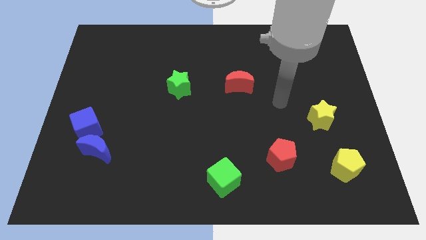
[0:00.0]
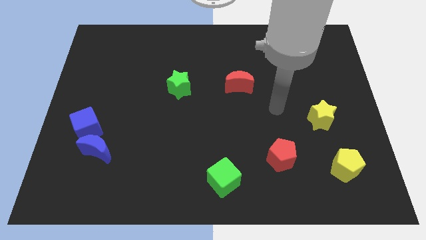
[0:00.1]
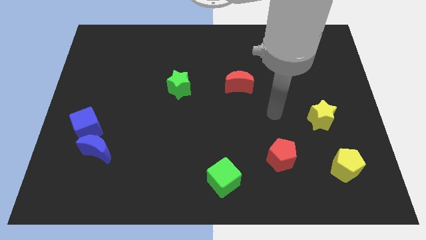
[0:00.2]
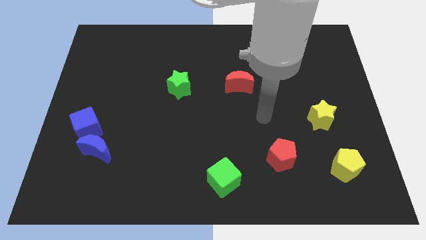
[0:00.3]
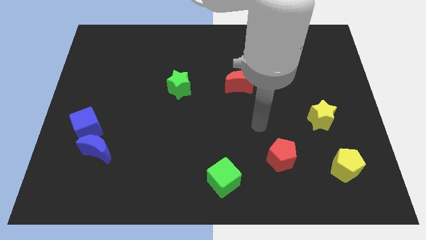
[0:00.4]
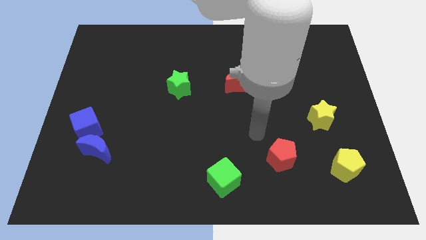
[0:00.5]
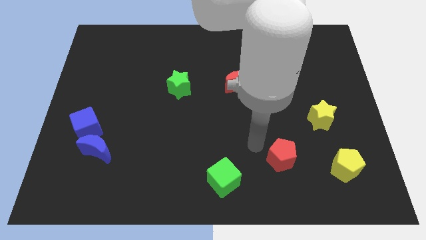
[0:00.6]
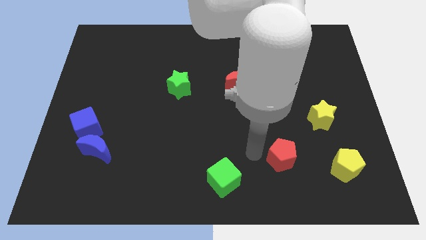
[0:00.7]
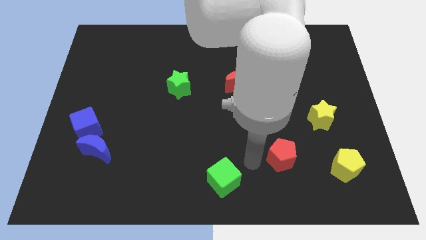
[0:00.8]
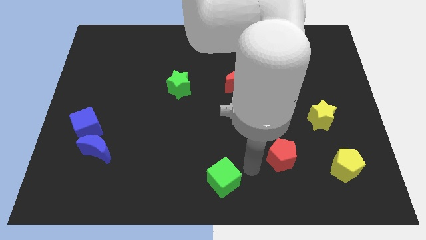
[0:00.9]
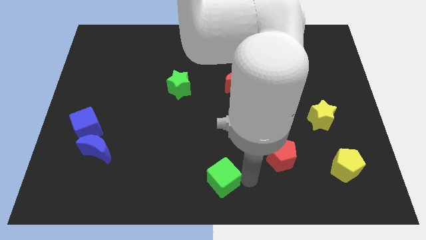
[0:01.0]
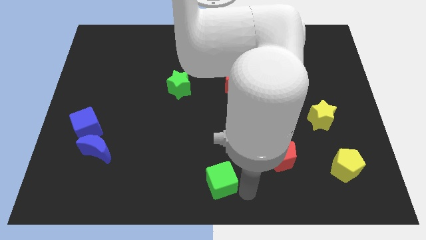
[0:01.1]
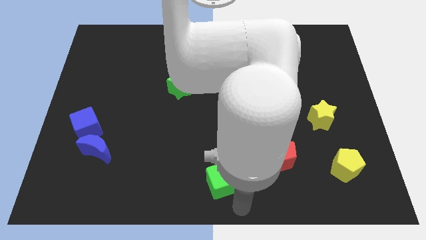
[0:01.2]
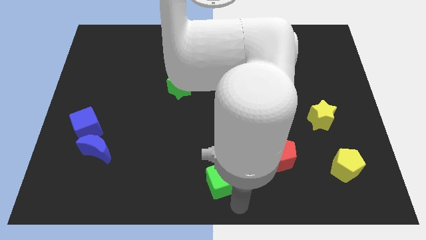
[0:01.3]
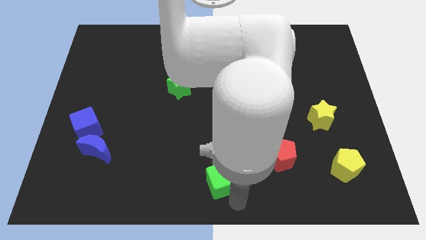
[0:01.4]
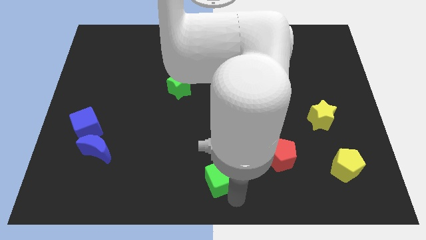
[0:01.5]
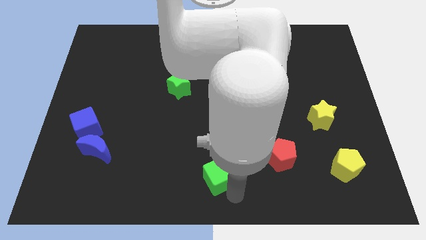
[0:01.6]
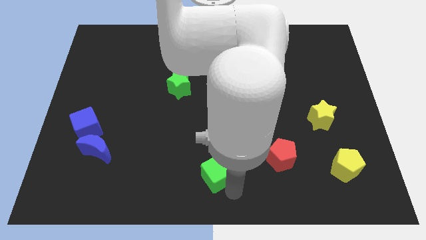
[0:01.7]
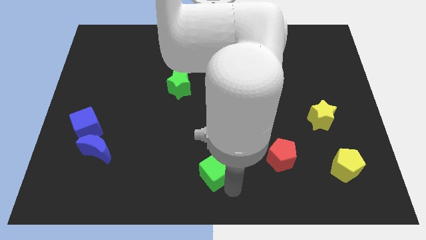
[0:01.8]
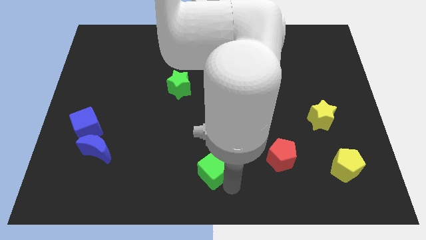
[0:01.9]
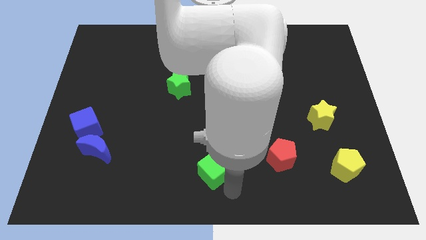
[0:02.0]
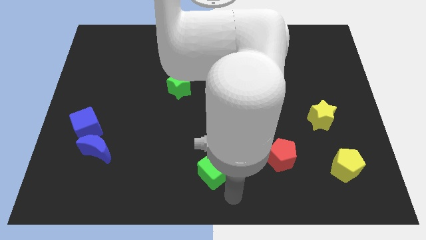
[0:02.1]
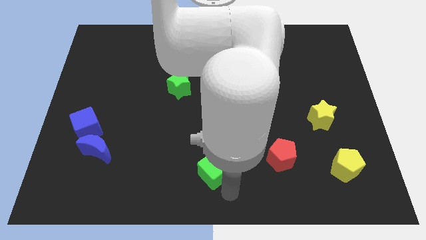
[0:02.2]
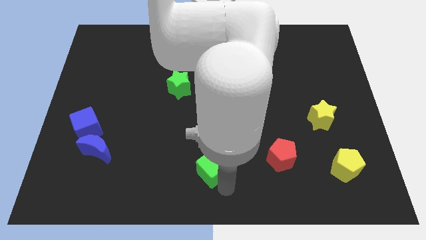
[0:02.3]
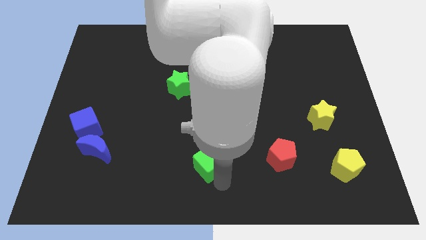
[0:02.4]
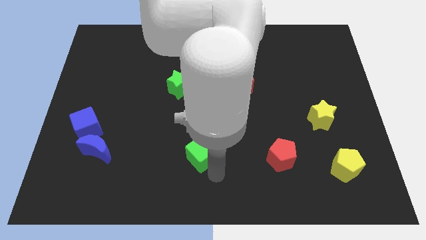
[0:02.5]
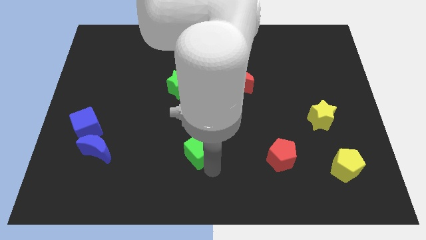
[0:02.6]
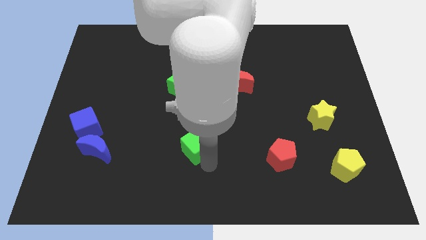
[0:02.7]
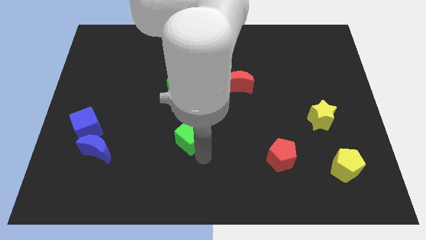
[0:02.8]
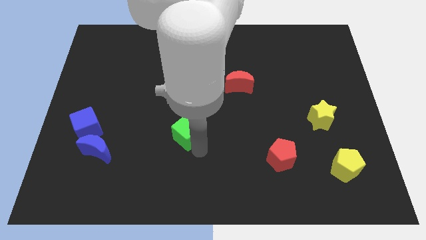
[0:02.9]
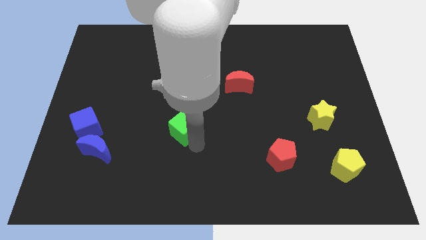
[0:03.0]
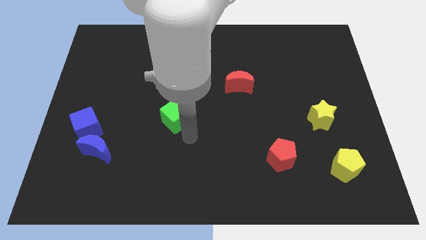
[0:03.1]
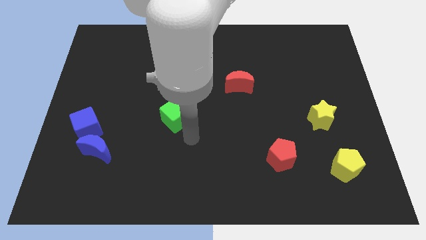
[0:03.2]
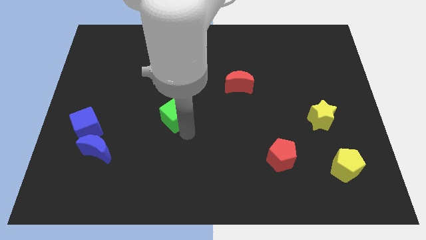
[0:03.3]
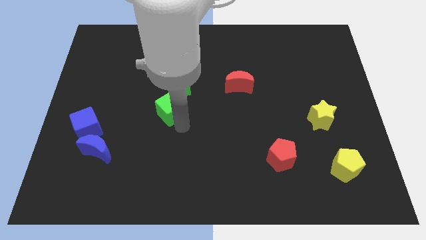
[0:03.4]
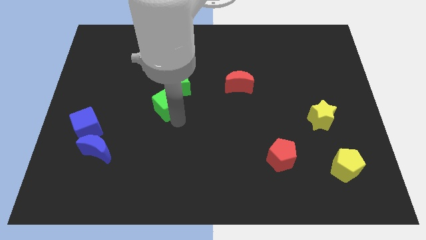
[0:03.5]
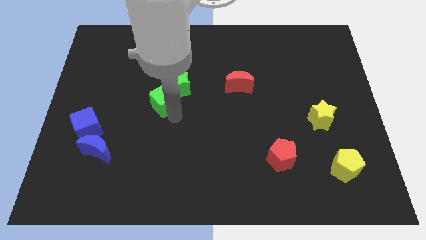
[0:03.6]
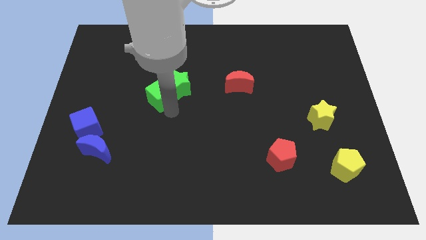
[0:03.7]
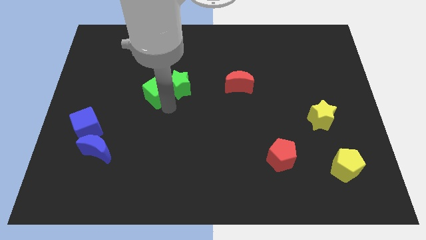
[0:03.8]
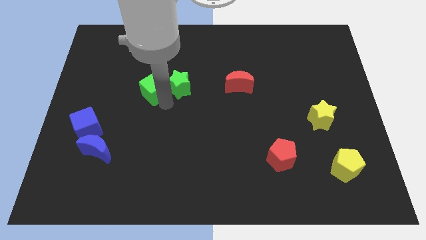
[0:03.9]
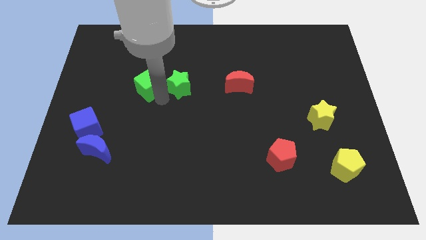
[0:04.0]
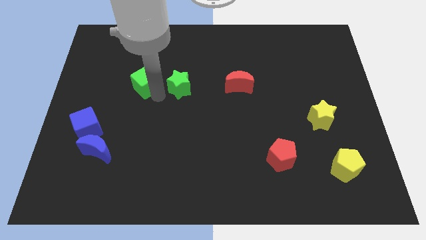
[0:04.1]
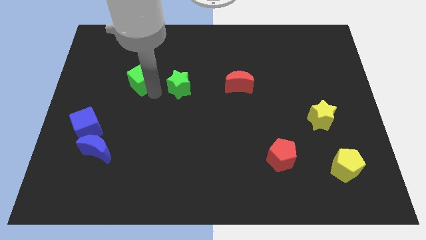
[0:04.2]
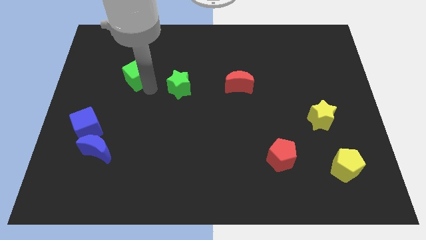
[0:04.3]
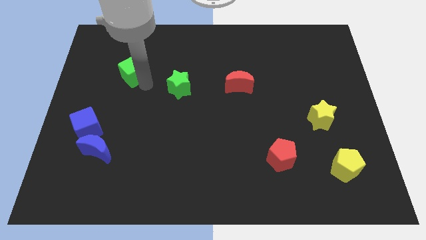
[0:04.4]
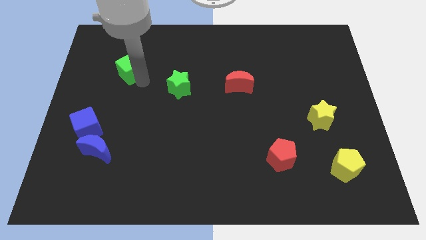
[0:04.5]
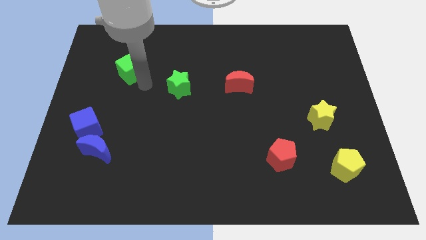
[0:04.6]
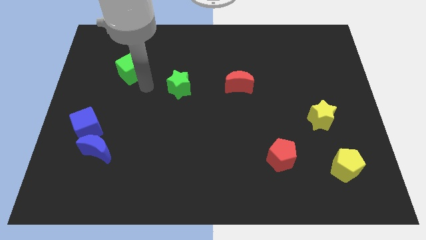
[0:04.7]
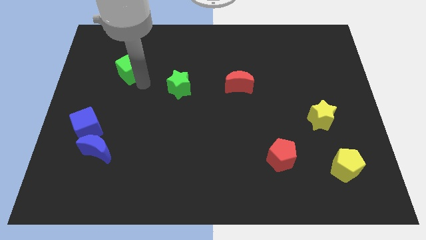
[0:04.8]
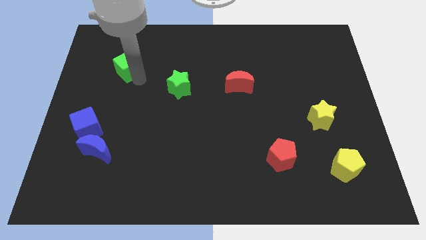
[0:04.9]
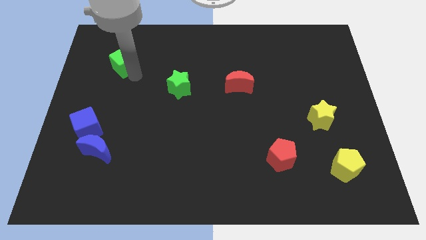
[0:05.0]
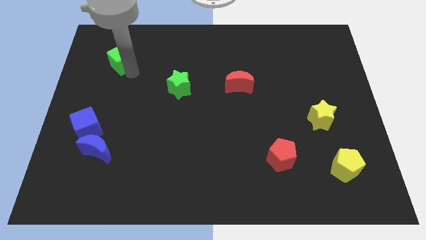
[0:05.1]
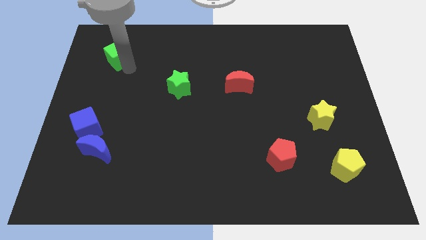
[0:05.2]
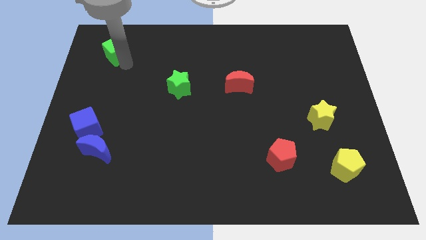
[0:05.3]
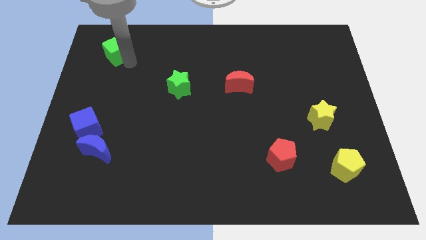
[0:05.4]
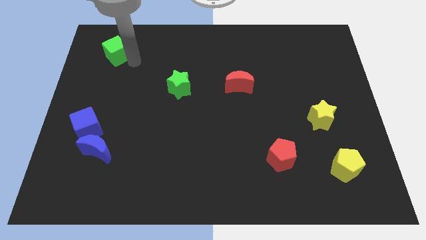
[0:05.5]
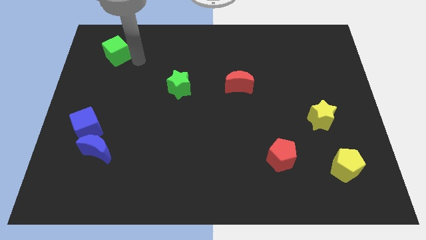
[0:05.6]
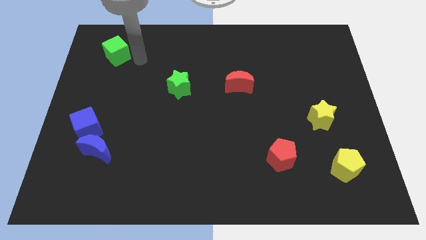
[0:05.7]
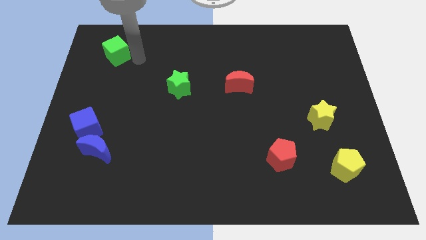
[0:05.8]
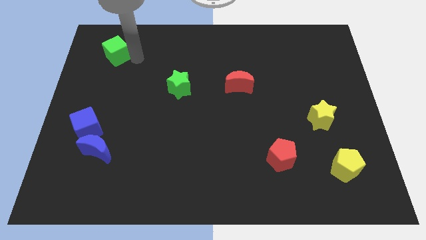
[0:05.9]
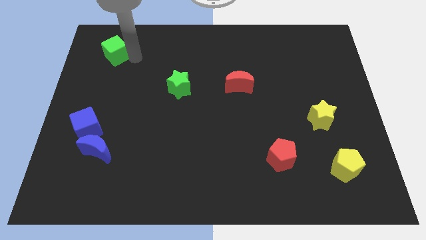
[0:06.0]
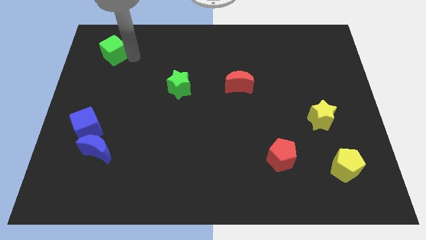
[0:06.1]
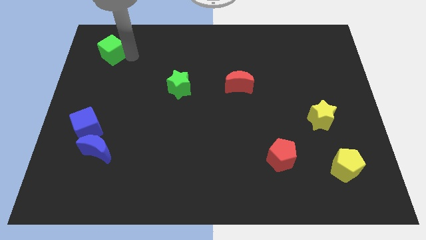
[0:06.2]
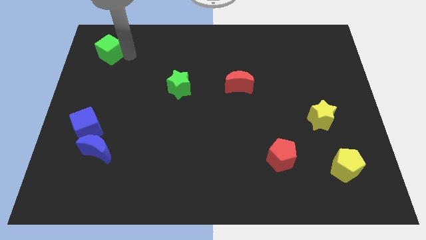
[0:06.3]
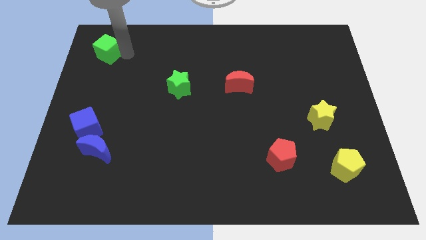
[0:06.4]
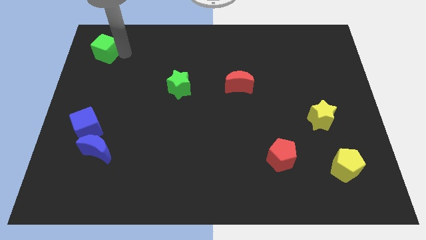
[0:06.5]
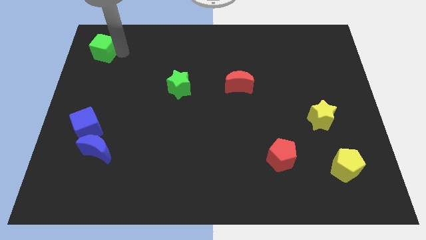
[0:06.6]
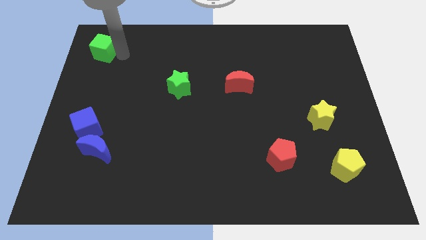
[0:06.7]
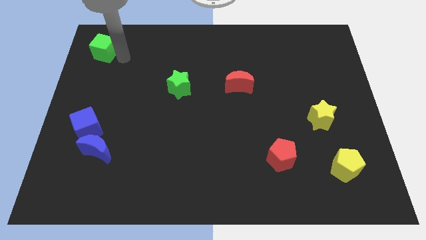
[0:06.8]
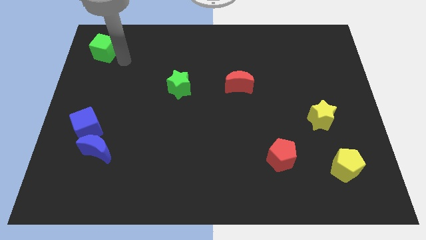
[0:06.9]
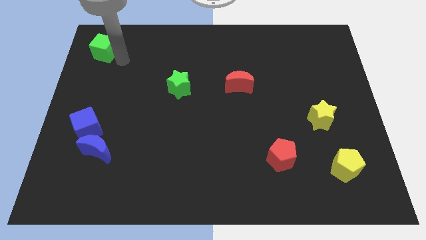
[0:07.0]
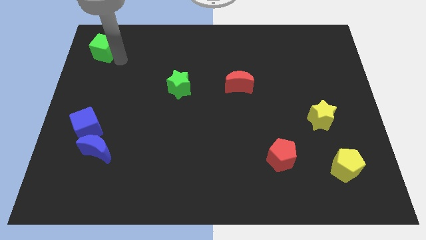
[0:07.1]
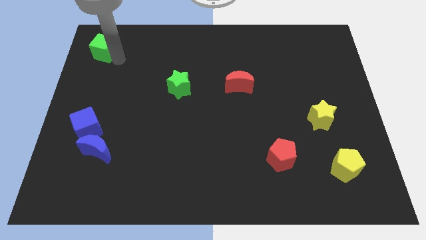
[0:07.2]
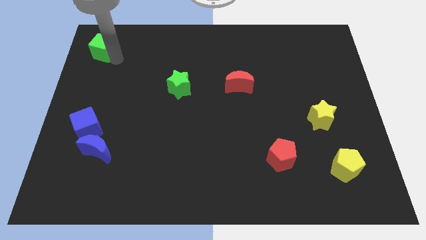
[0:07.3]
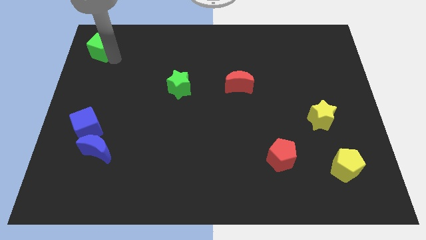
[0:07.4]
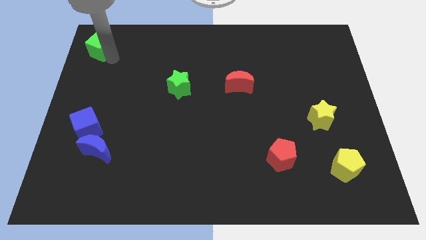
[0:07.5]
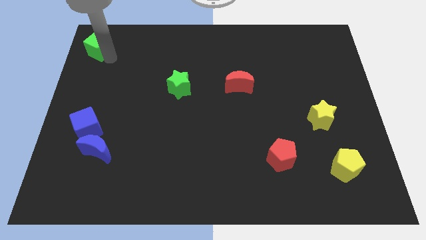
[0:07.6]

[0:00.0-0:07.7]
move the green cube to the top left
